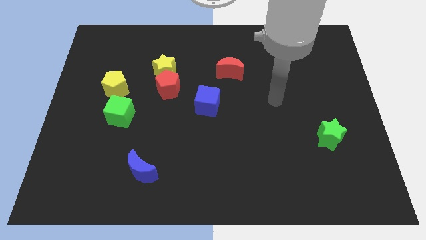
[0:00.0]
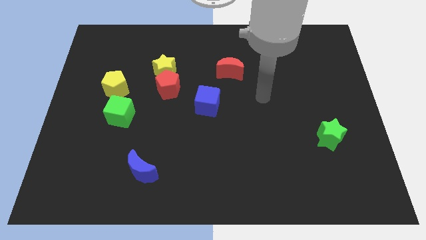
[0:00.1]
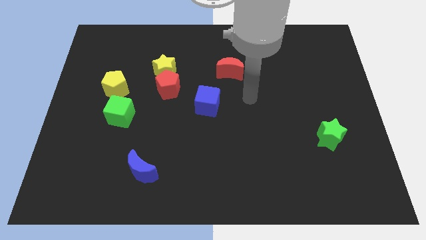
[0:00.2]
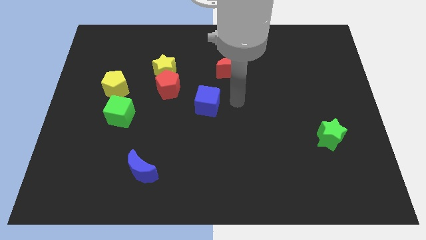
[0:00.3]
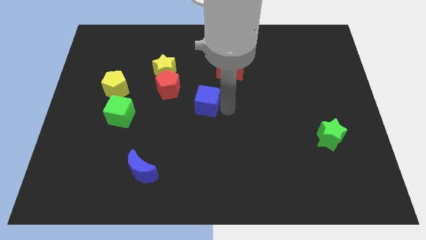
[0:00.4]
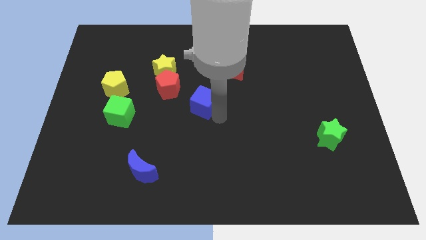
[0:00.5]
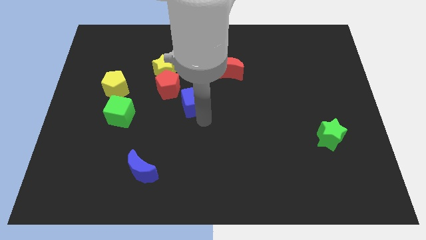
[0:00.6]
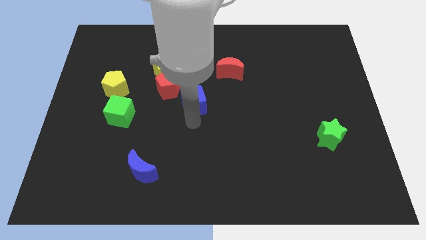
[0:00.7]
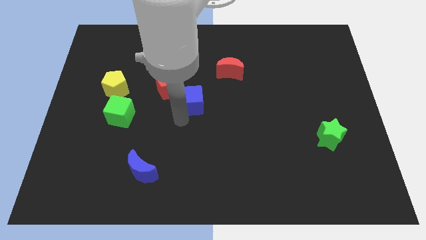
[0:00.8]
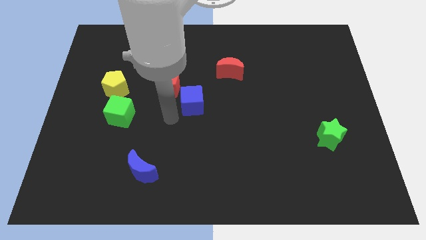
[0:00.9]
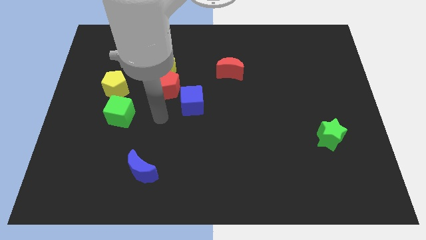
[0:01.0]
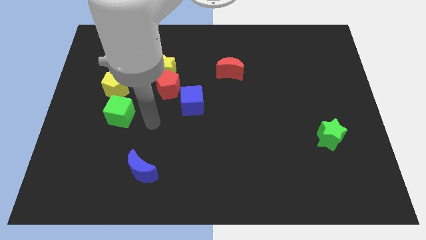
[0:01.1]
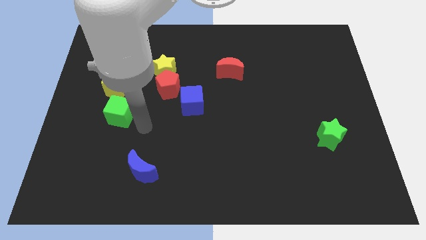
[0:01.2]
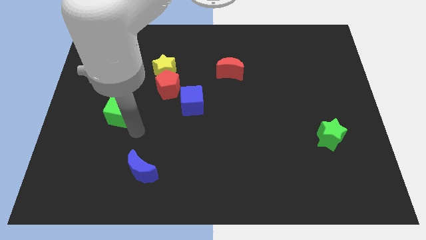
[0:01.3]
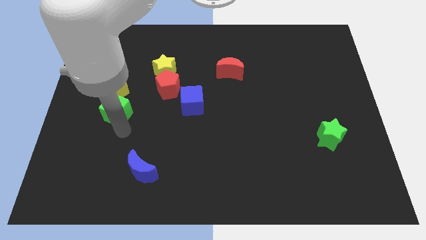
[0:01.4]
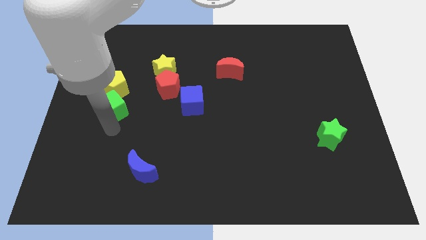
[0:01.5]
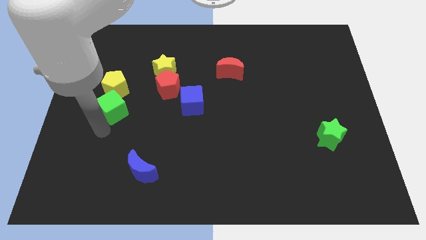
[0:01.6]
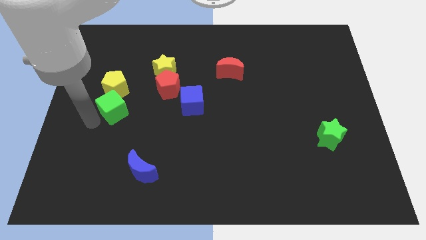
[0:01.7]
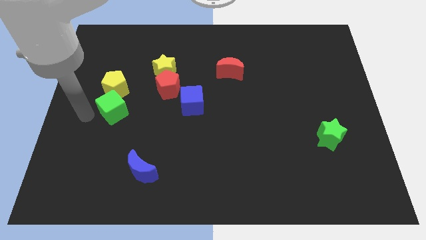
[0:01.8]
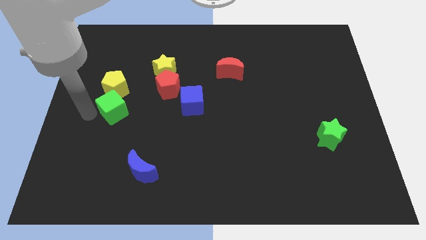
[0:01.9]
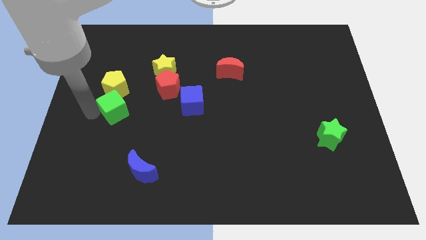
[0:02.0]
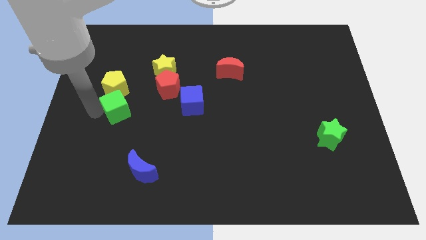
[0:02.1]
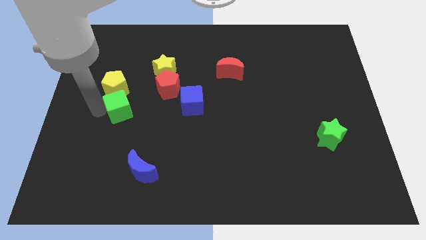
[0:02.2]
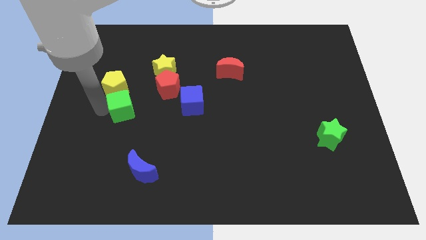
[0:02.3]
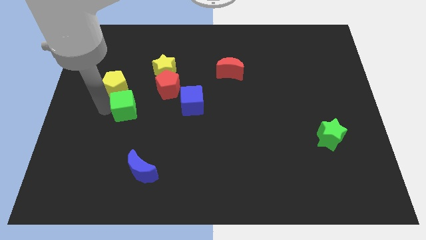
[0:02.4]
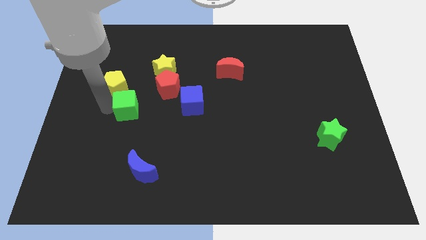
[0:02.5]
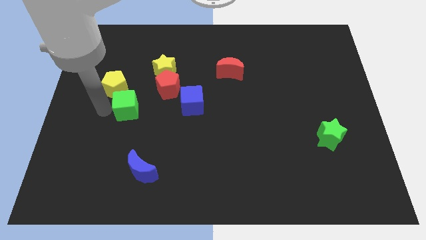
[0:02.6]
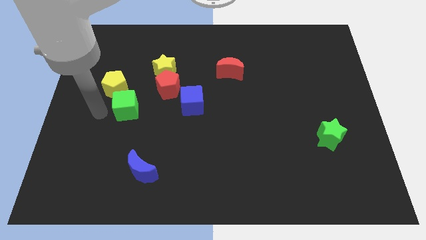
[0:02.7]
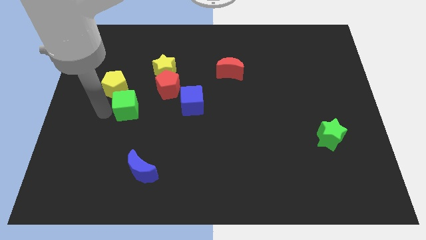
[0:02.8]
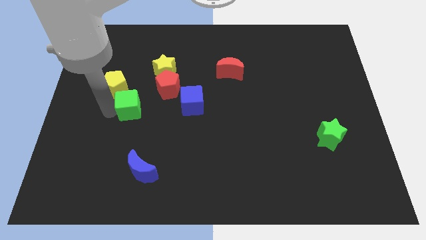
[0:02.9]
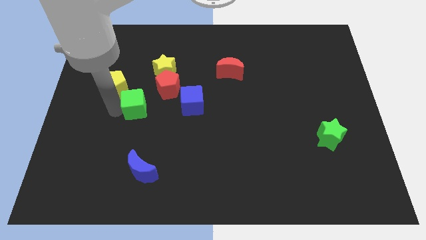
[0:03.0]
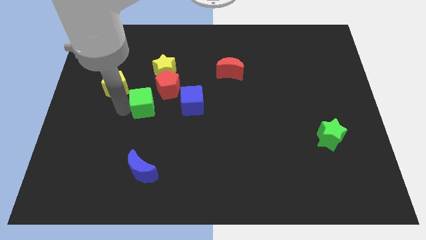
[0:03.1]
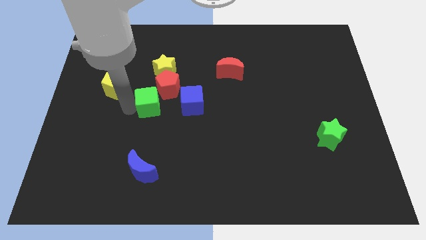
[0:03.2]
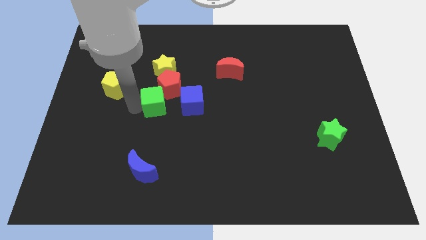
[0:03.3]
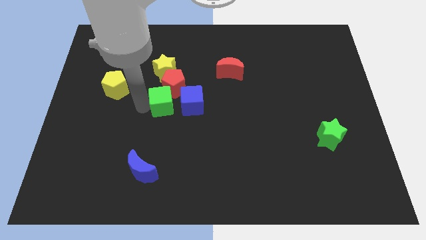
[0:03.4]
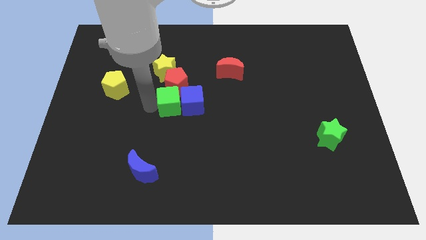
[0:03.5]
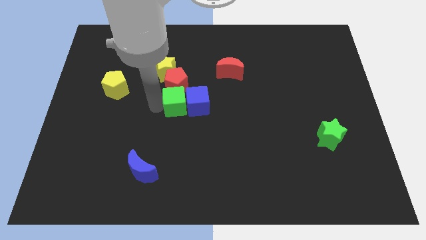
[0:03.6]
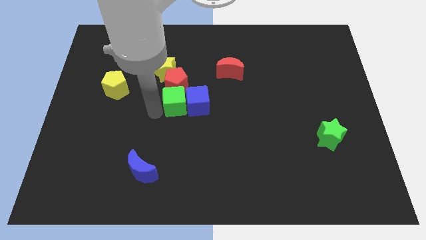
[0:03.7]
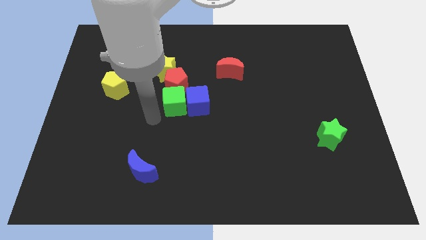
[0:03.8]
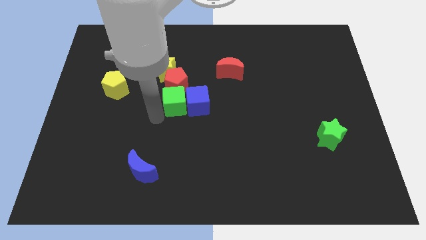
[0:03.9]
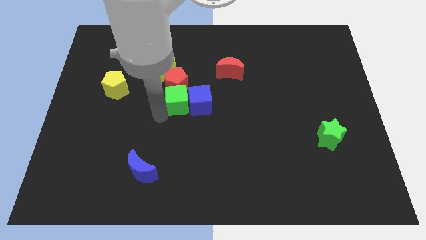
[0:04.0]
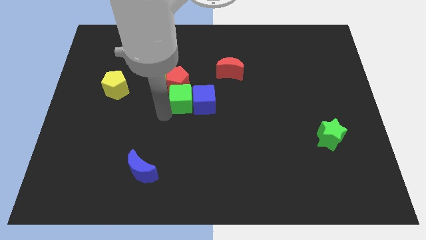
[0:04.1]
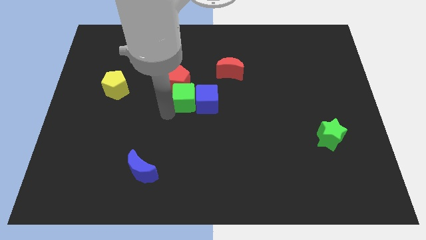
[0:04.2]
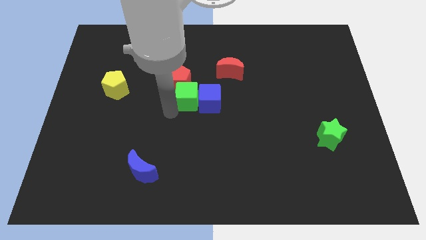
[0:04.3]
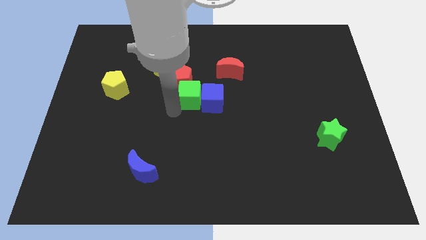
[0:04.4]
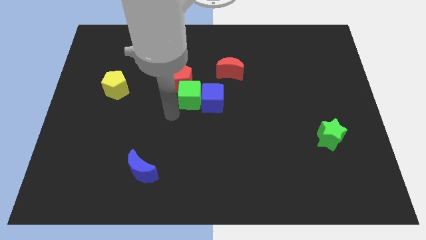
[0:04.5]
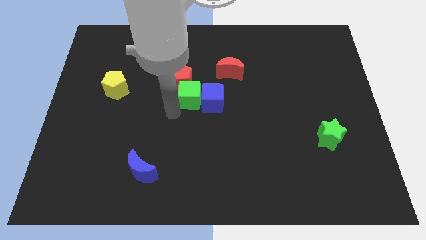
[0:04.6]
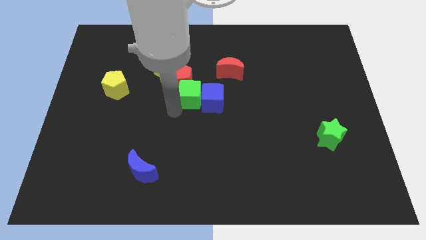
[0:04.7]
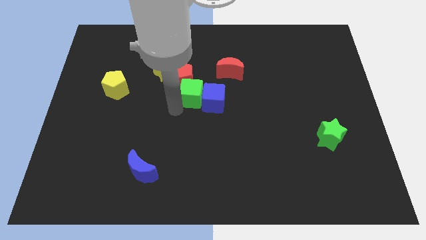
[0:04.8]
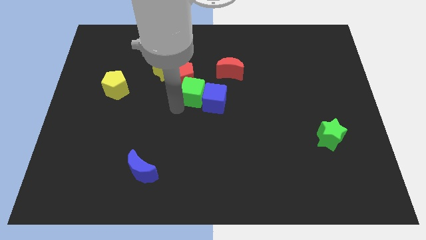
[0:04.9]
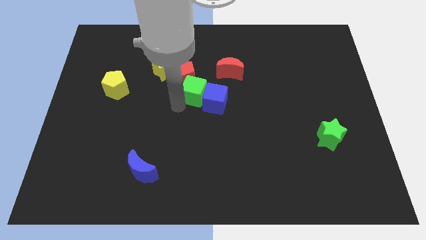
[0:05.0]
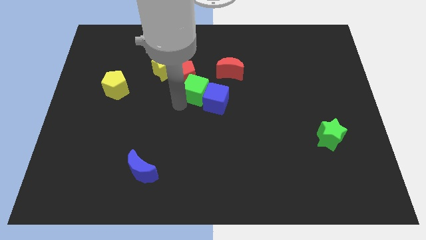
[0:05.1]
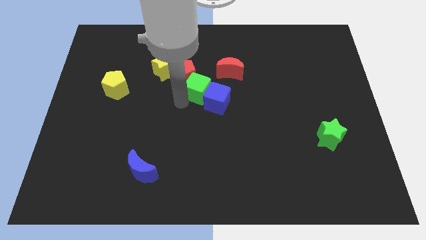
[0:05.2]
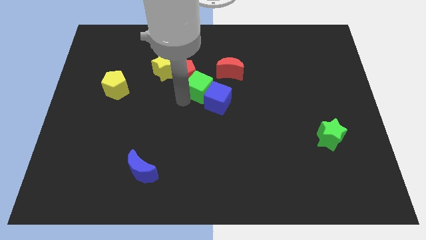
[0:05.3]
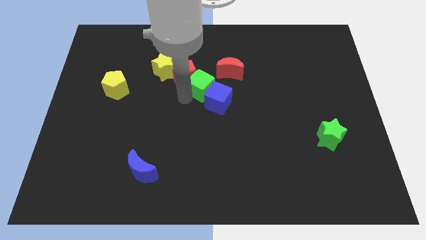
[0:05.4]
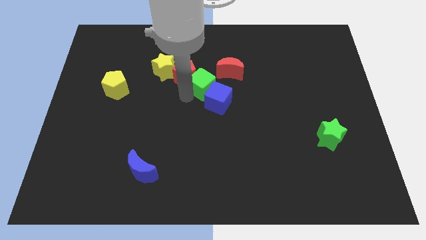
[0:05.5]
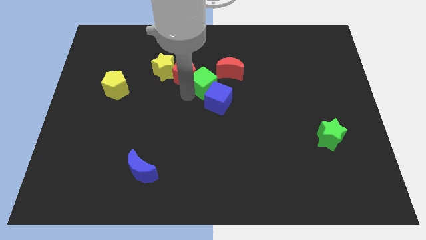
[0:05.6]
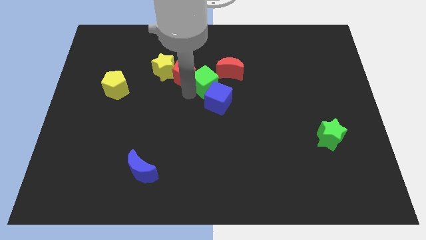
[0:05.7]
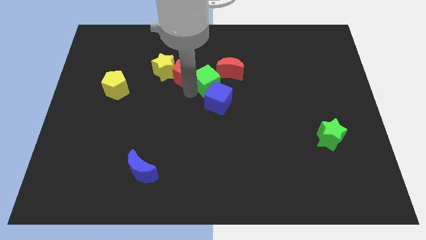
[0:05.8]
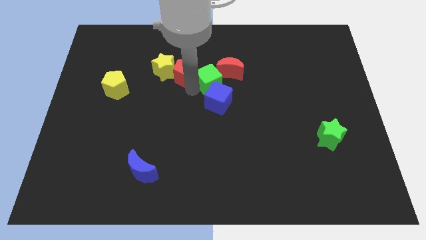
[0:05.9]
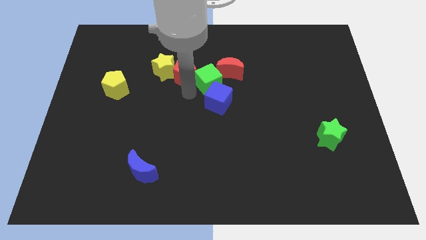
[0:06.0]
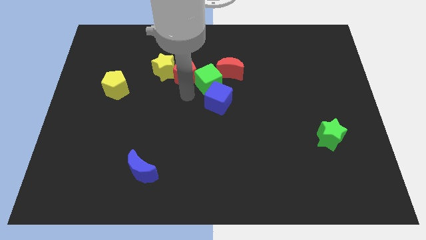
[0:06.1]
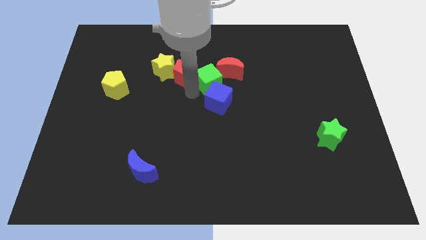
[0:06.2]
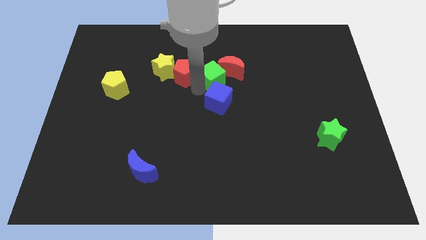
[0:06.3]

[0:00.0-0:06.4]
push the green cube next to the red moon

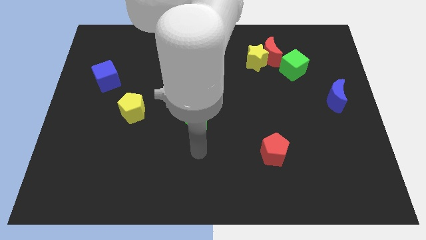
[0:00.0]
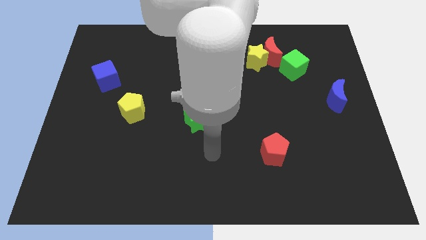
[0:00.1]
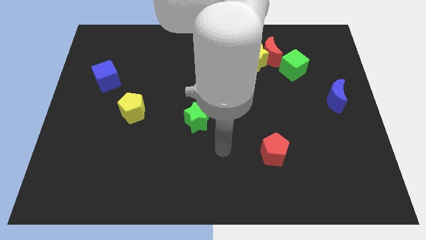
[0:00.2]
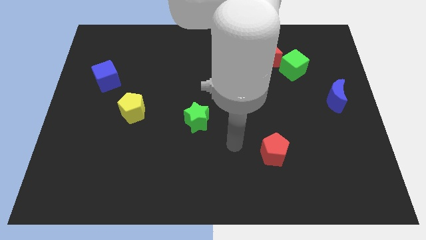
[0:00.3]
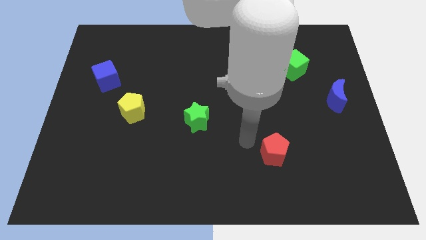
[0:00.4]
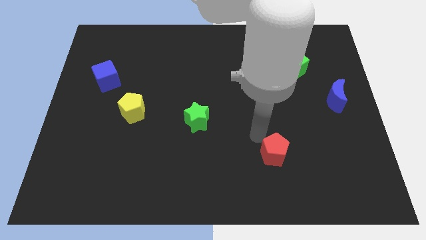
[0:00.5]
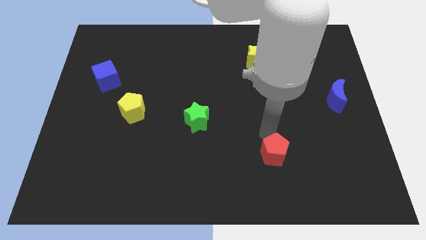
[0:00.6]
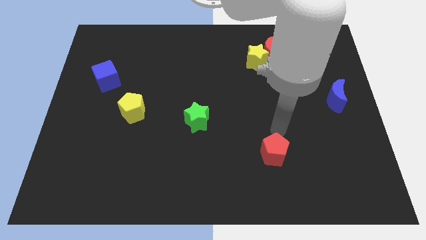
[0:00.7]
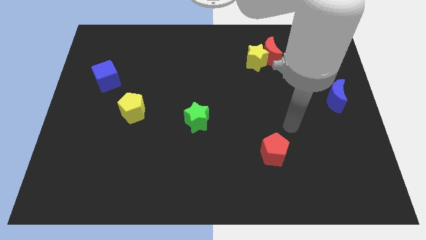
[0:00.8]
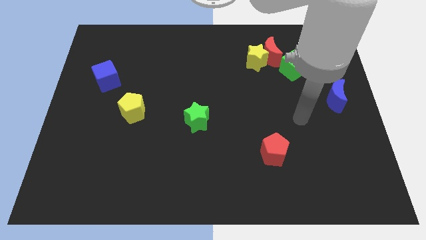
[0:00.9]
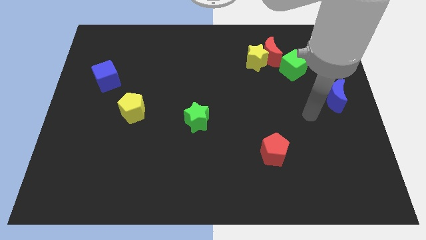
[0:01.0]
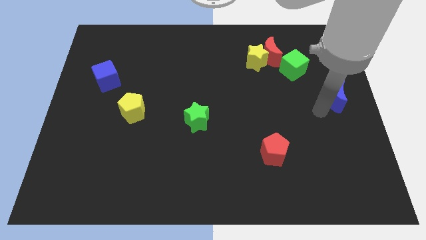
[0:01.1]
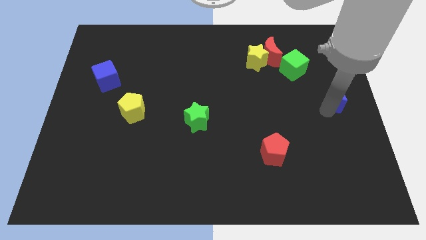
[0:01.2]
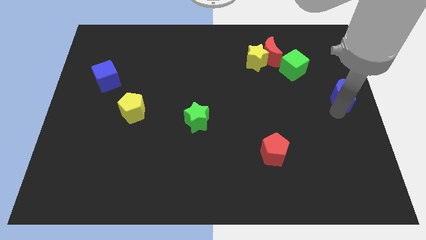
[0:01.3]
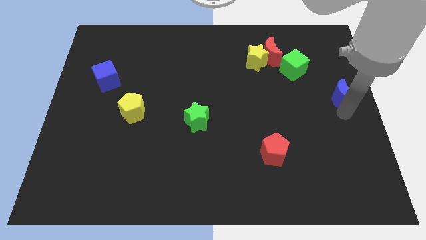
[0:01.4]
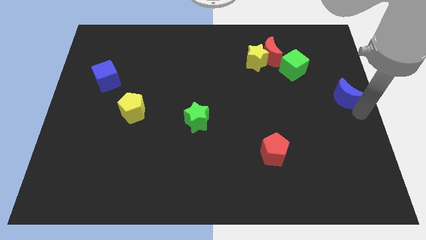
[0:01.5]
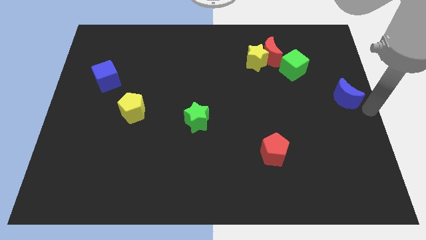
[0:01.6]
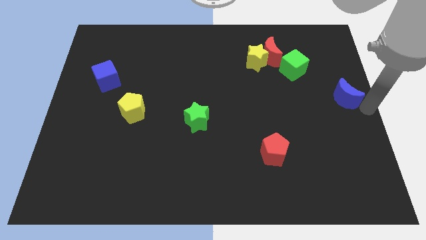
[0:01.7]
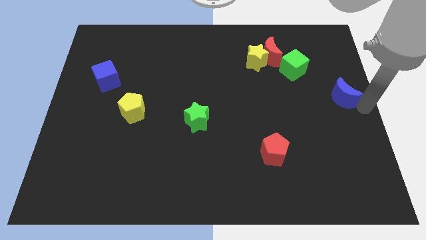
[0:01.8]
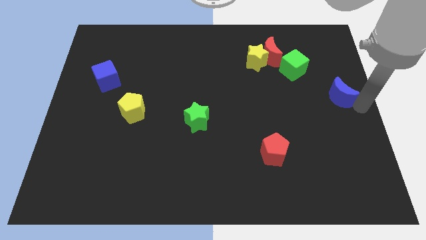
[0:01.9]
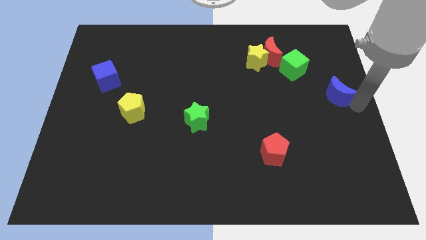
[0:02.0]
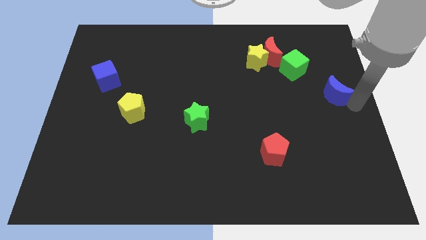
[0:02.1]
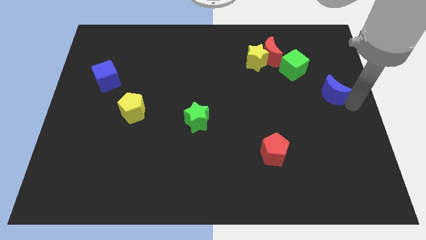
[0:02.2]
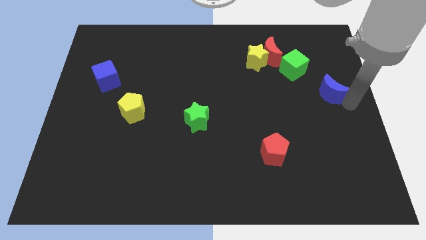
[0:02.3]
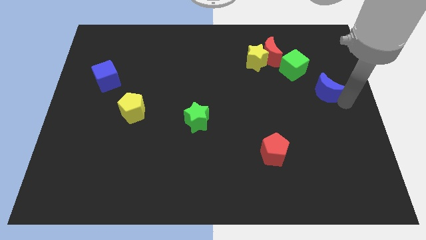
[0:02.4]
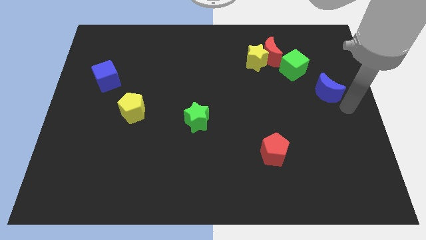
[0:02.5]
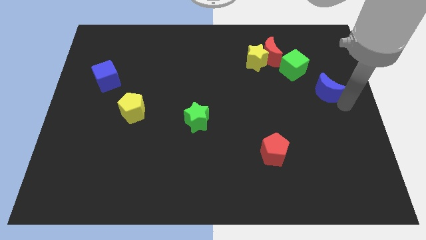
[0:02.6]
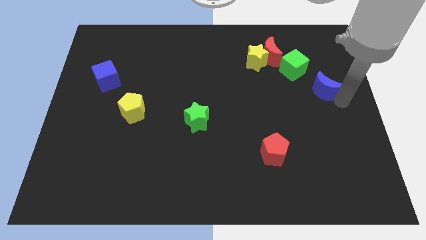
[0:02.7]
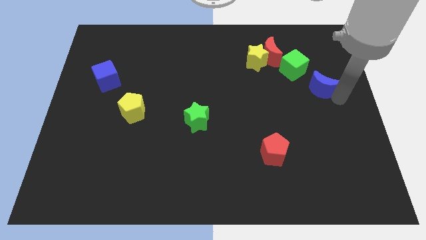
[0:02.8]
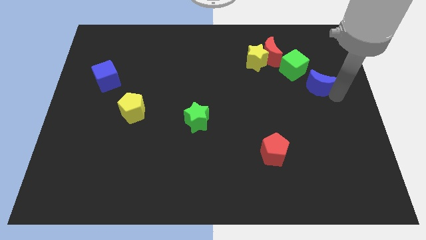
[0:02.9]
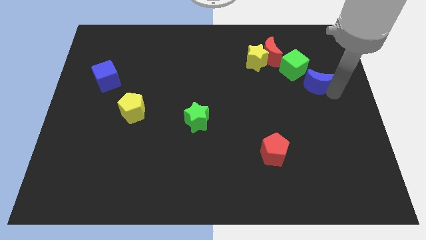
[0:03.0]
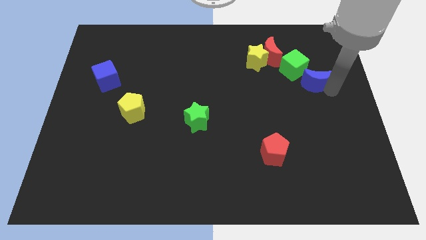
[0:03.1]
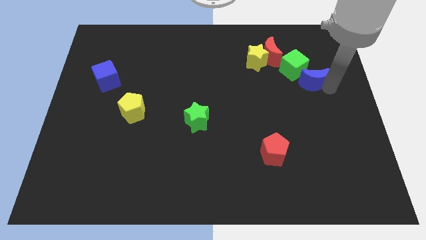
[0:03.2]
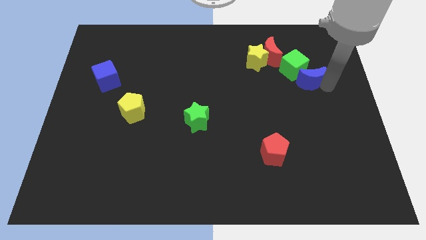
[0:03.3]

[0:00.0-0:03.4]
put the blue moon to the green cube
